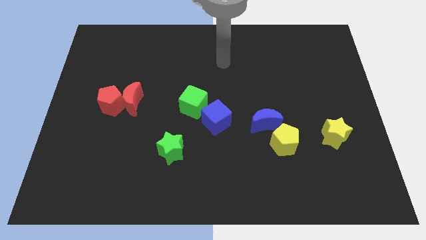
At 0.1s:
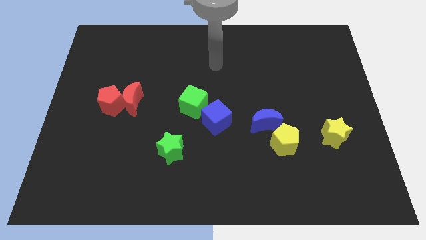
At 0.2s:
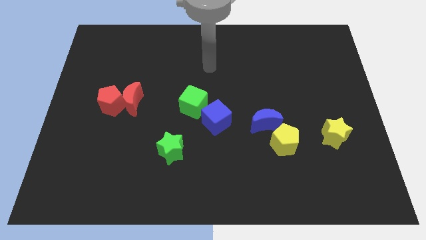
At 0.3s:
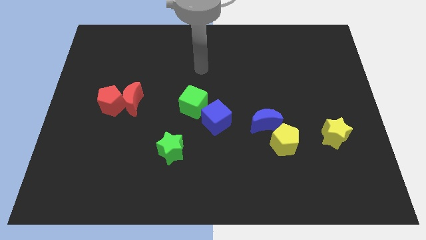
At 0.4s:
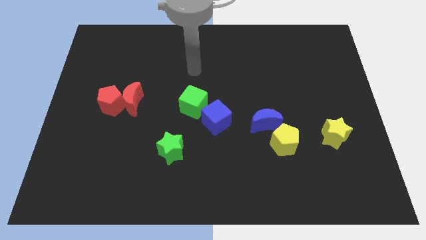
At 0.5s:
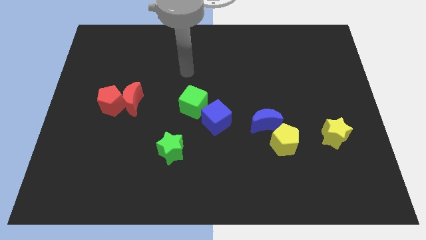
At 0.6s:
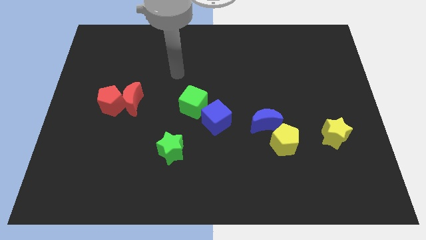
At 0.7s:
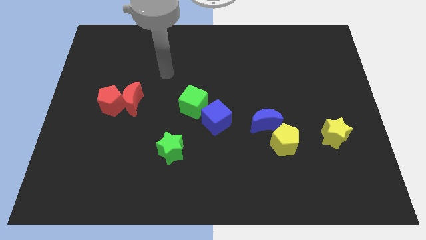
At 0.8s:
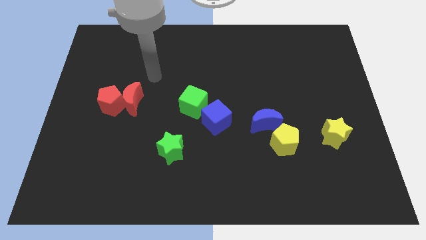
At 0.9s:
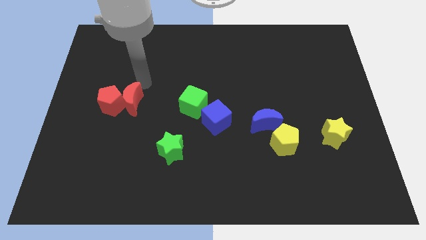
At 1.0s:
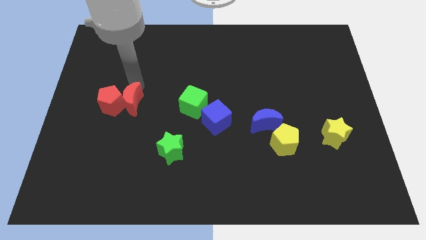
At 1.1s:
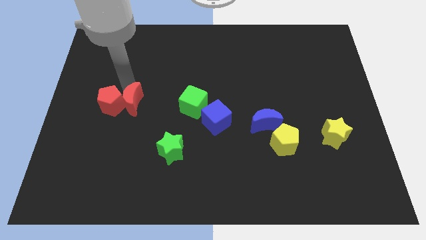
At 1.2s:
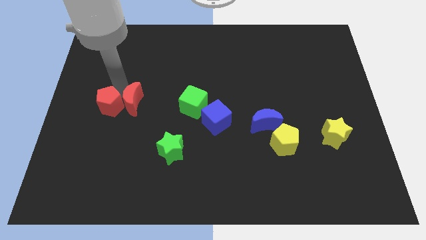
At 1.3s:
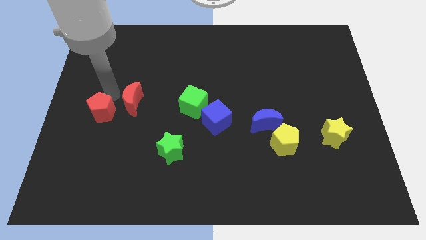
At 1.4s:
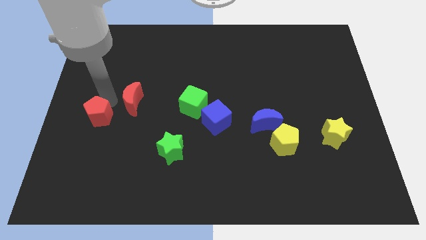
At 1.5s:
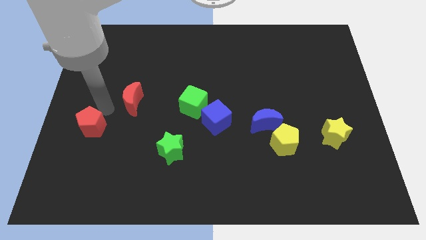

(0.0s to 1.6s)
separate the red moon from the red pentagon

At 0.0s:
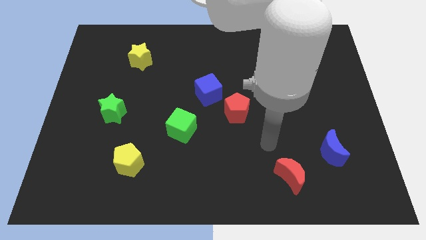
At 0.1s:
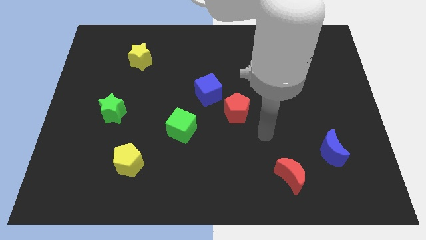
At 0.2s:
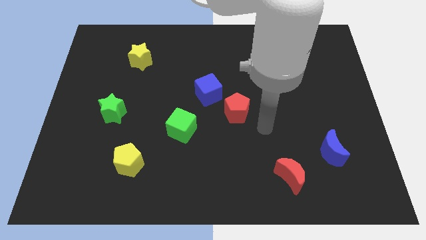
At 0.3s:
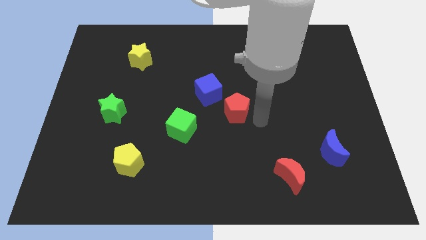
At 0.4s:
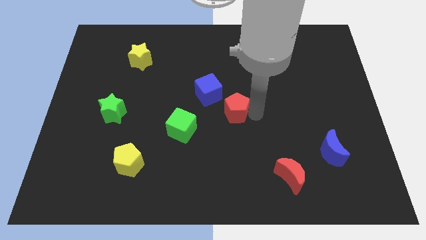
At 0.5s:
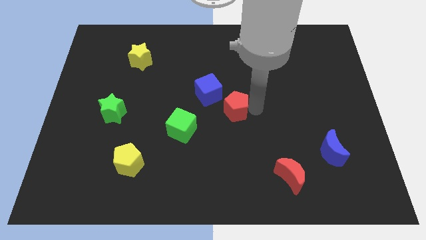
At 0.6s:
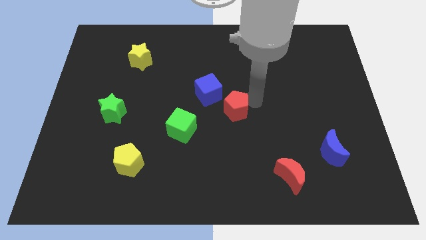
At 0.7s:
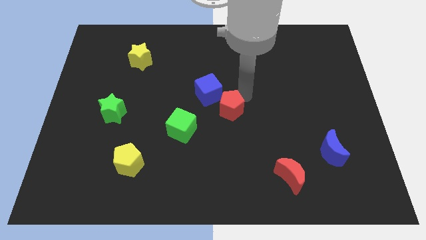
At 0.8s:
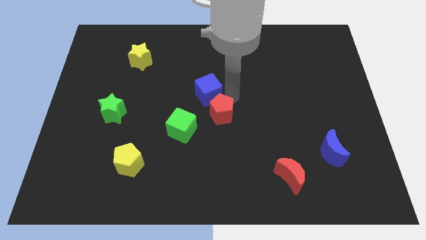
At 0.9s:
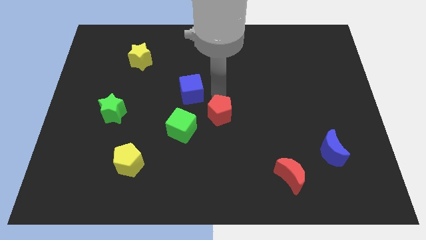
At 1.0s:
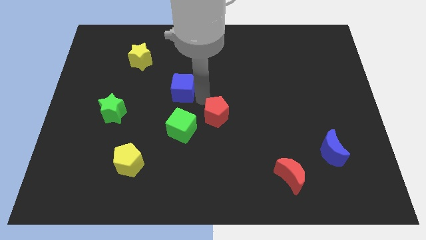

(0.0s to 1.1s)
pull the red pentagon apart from the blue cube

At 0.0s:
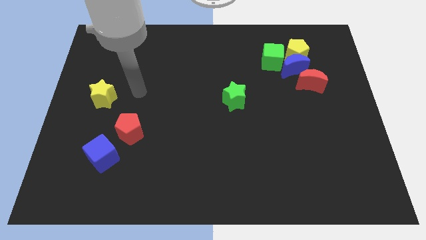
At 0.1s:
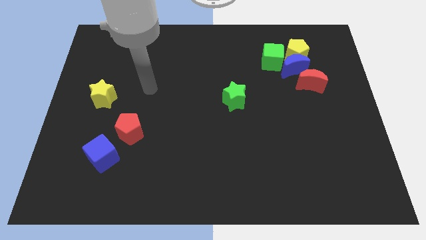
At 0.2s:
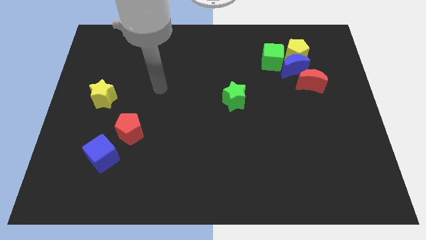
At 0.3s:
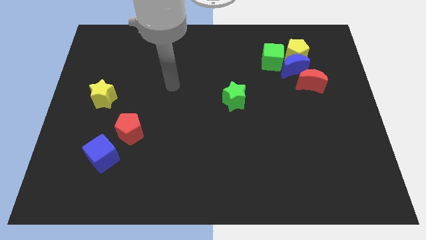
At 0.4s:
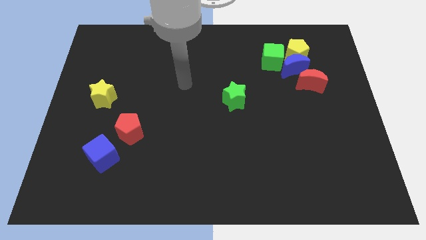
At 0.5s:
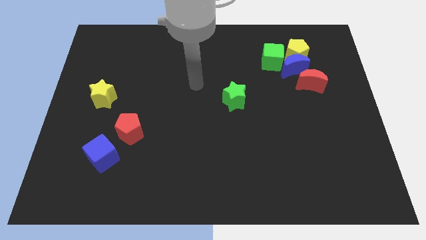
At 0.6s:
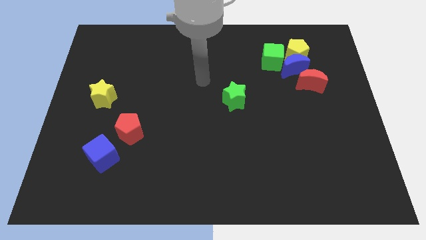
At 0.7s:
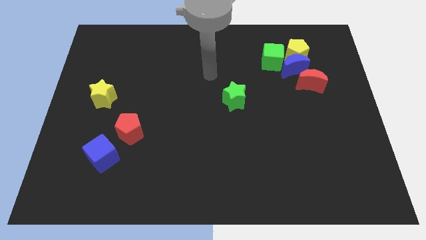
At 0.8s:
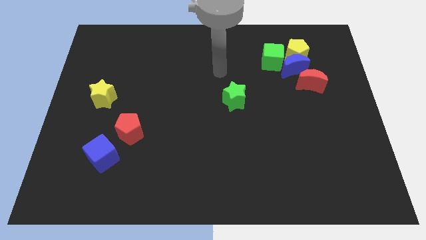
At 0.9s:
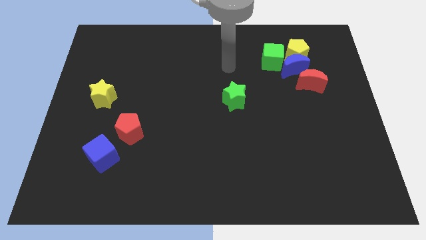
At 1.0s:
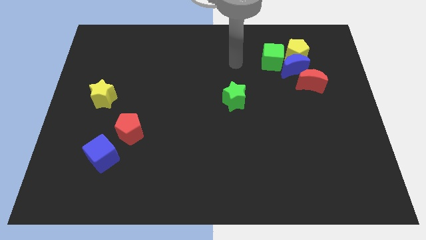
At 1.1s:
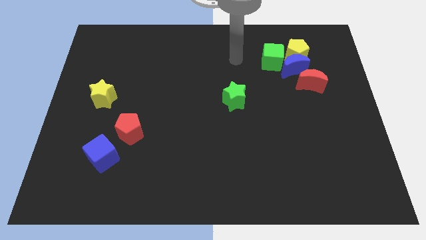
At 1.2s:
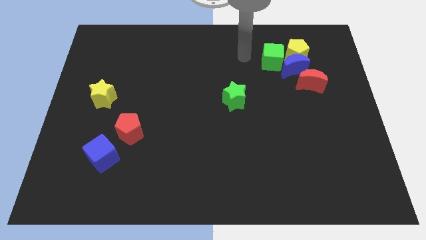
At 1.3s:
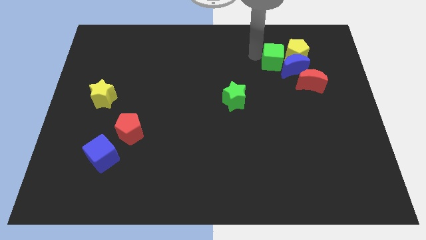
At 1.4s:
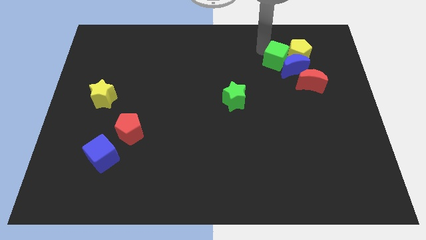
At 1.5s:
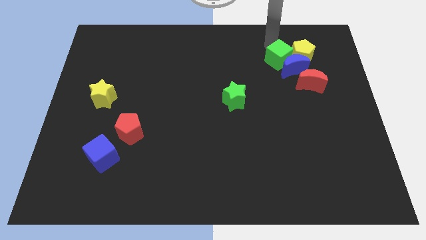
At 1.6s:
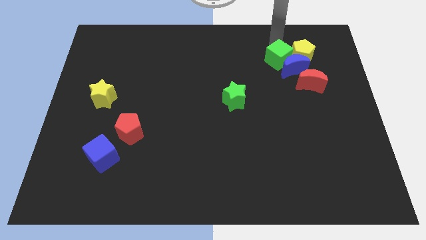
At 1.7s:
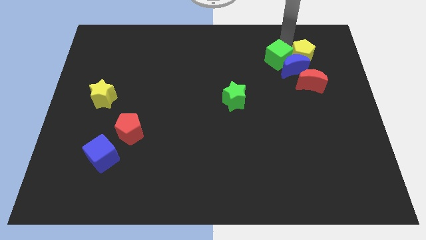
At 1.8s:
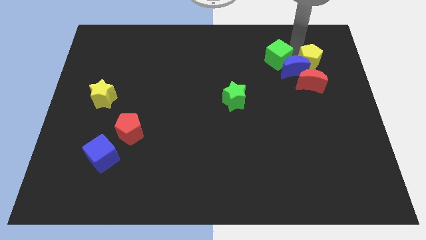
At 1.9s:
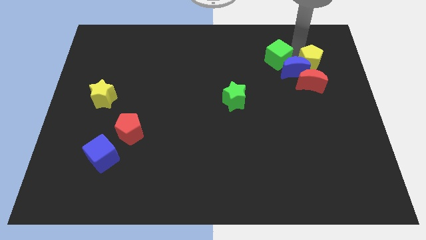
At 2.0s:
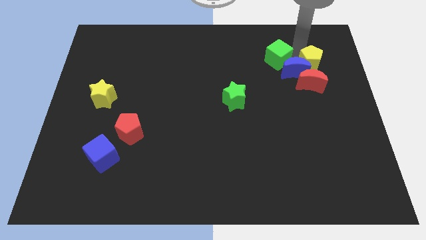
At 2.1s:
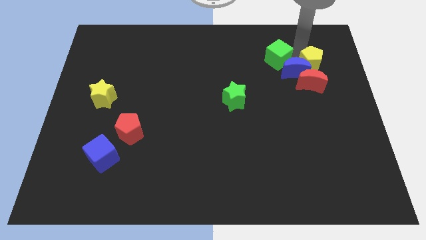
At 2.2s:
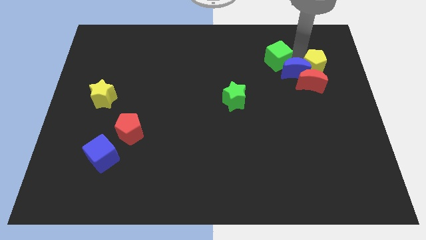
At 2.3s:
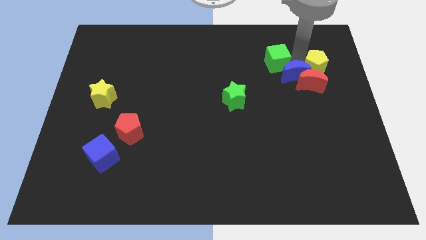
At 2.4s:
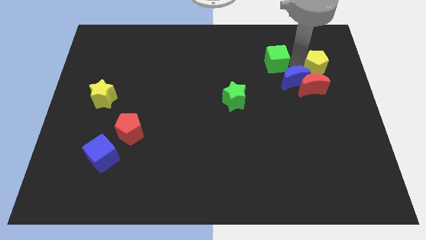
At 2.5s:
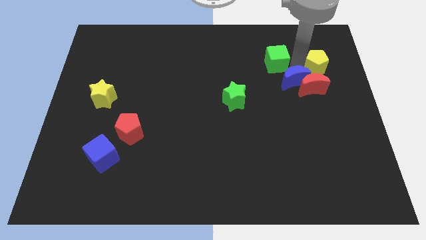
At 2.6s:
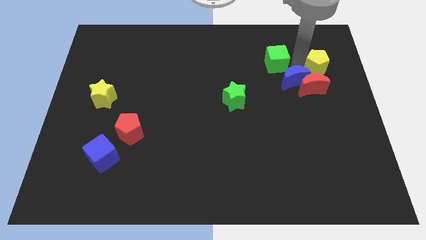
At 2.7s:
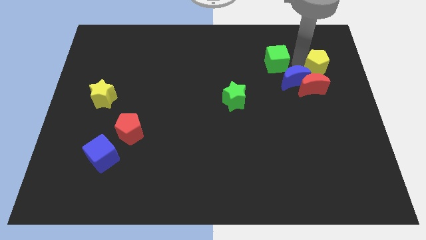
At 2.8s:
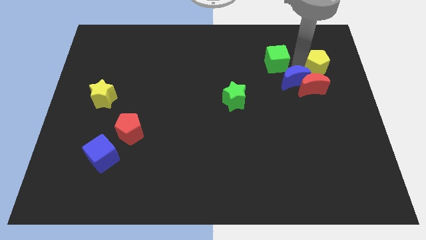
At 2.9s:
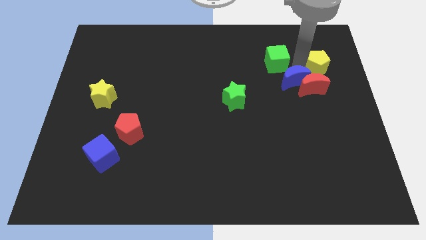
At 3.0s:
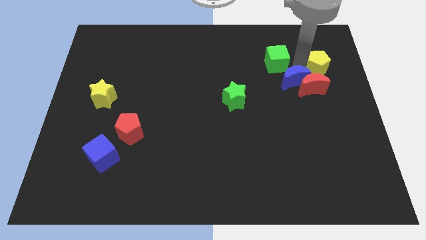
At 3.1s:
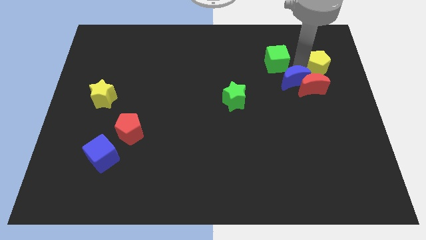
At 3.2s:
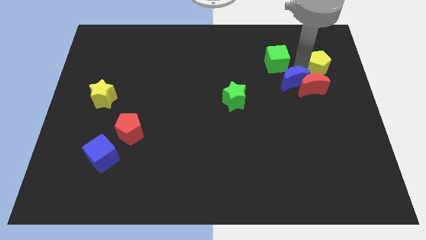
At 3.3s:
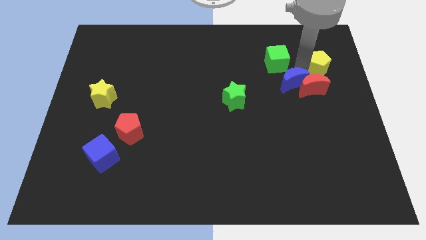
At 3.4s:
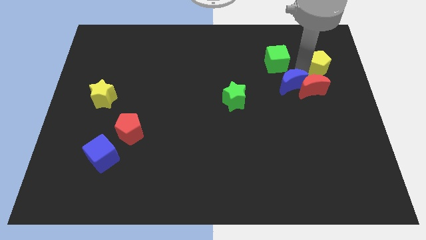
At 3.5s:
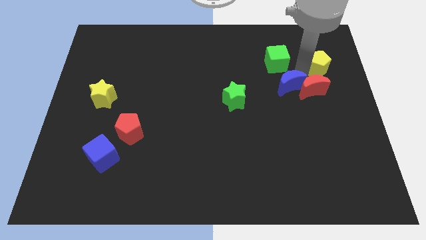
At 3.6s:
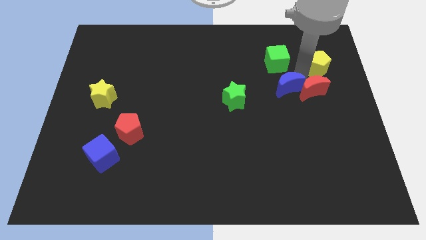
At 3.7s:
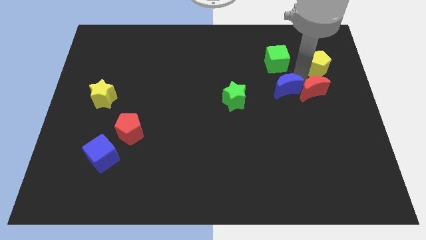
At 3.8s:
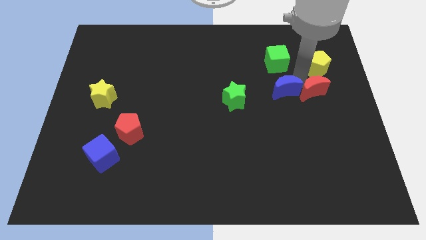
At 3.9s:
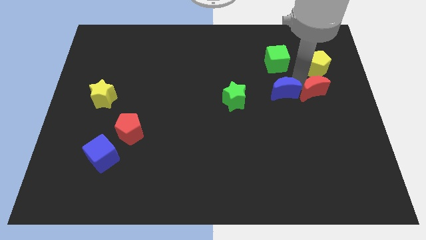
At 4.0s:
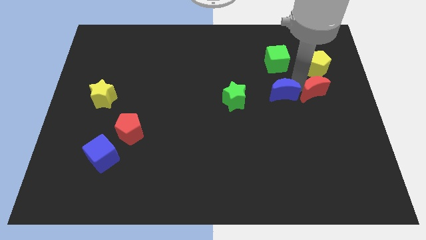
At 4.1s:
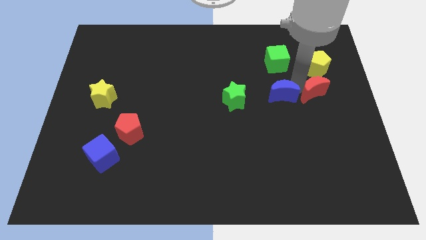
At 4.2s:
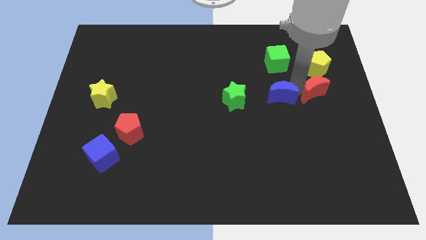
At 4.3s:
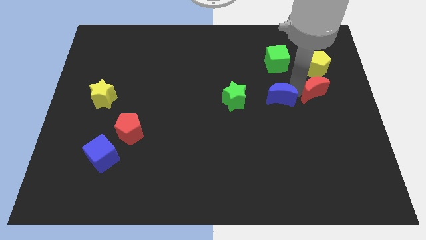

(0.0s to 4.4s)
move the blue moon away from the yellow pentagon, green cube, and red moon

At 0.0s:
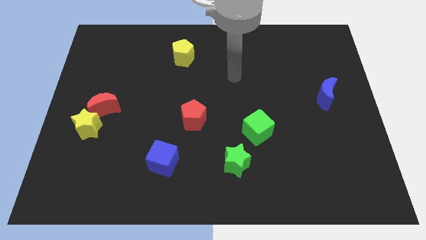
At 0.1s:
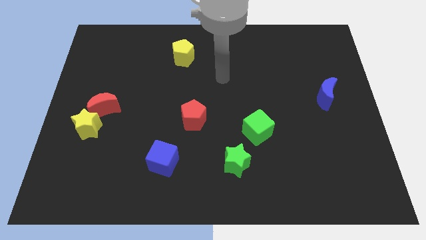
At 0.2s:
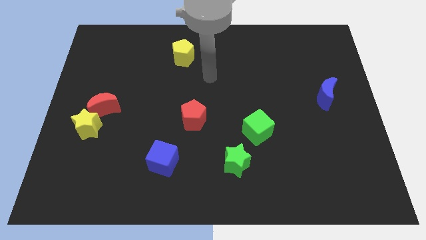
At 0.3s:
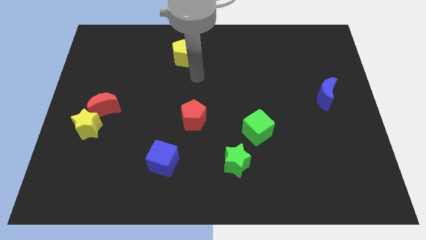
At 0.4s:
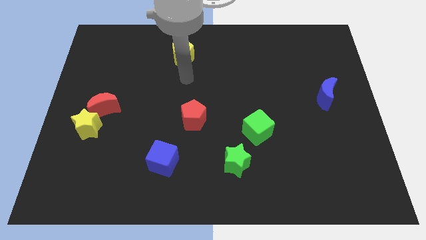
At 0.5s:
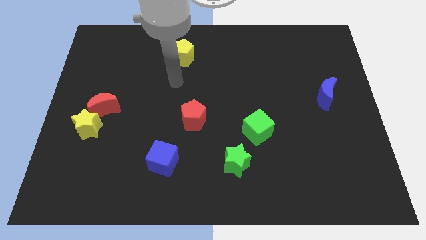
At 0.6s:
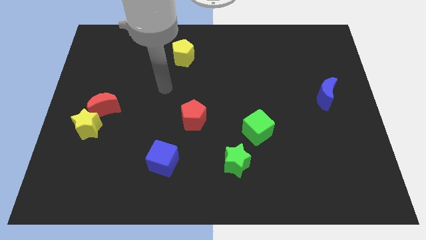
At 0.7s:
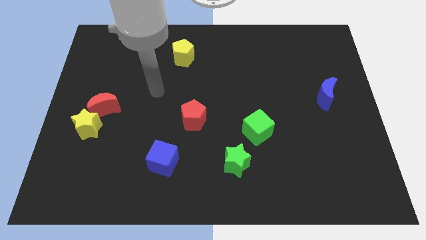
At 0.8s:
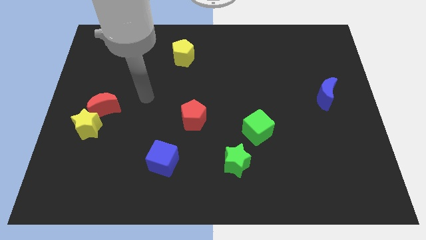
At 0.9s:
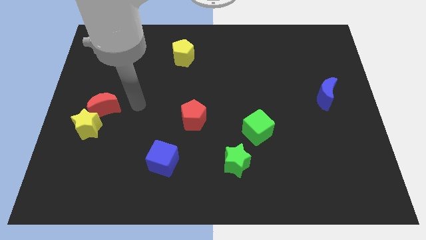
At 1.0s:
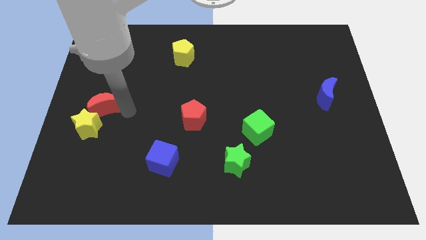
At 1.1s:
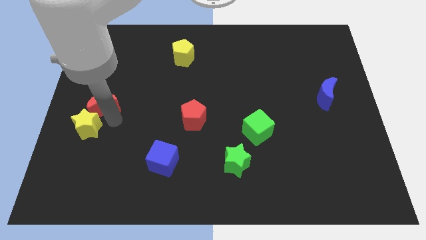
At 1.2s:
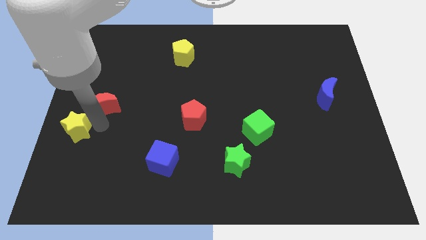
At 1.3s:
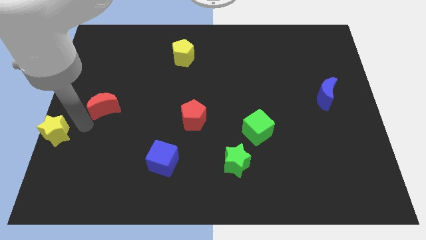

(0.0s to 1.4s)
move the red moon away from the yellow star

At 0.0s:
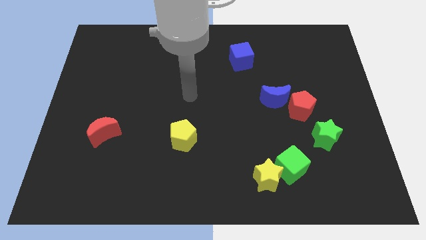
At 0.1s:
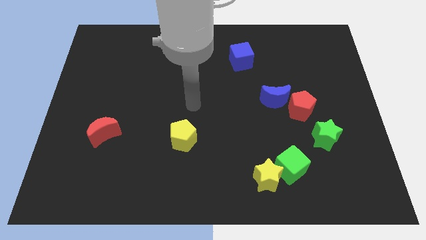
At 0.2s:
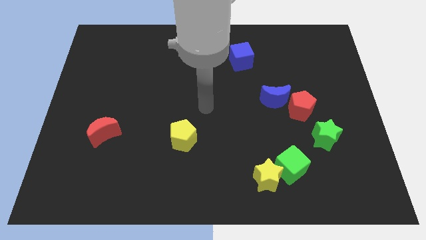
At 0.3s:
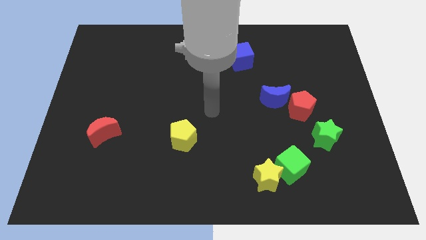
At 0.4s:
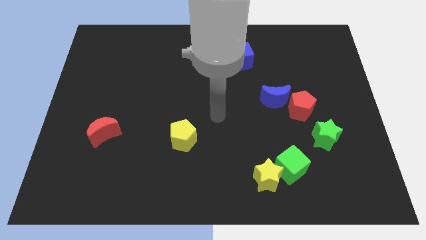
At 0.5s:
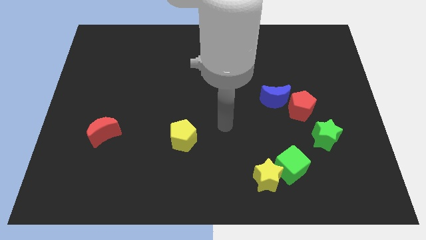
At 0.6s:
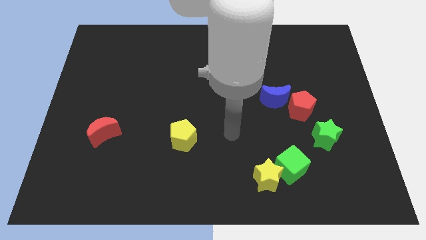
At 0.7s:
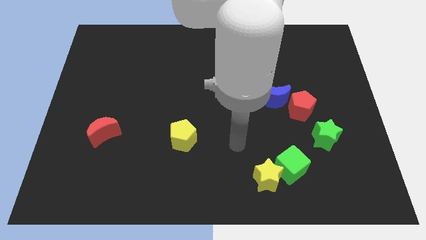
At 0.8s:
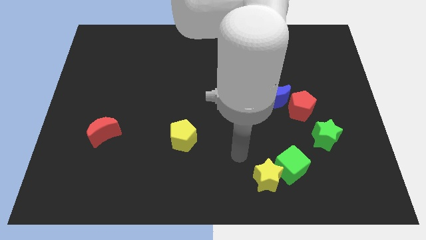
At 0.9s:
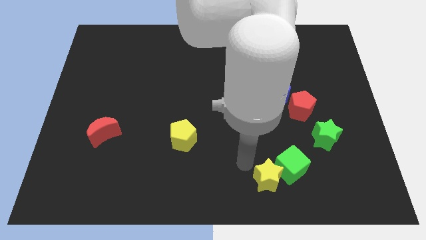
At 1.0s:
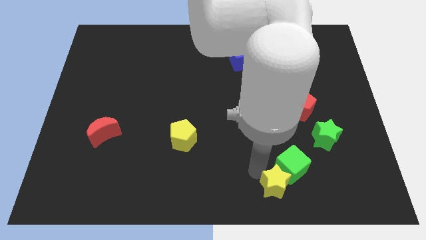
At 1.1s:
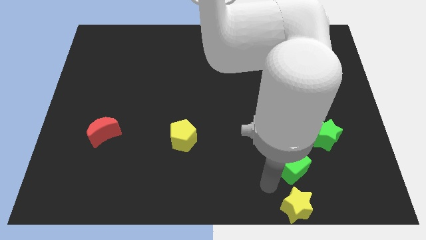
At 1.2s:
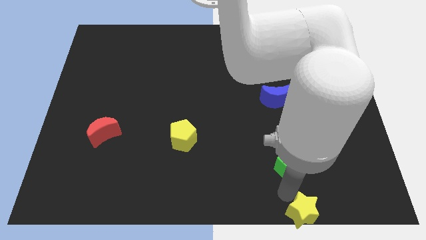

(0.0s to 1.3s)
pull the green cube apart from the yellow star
